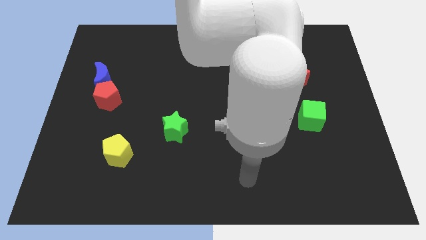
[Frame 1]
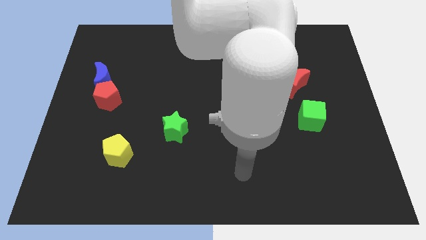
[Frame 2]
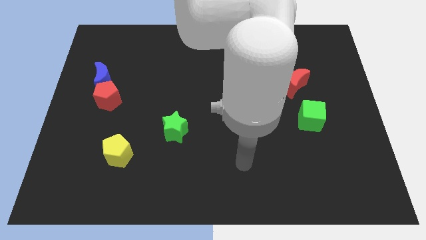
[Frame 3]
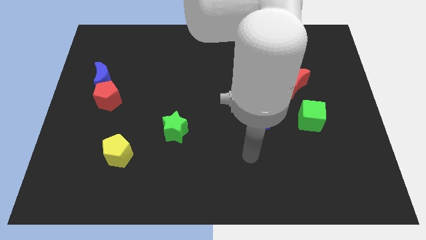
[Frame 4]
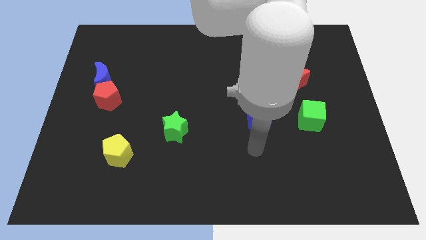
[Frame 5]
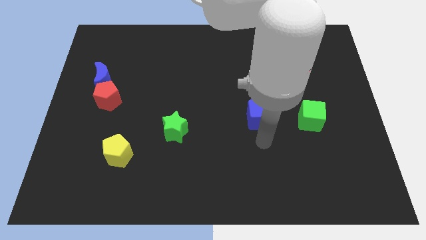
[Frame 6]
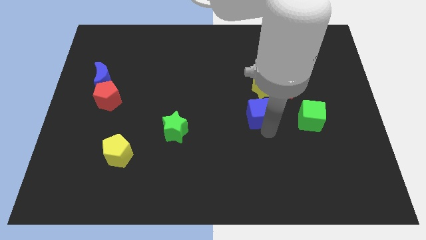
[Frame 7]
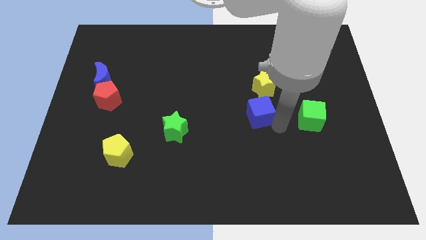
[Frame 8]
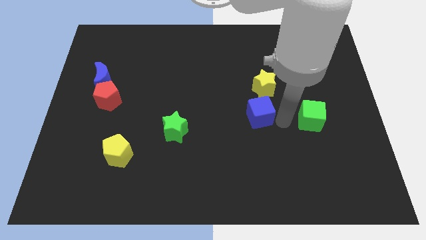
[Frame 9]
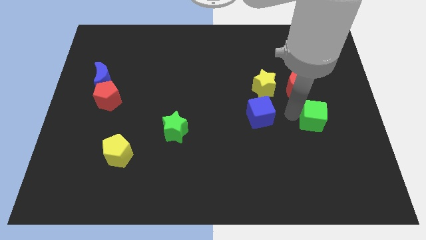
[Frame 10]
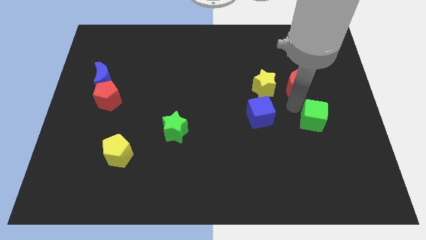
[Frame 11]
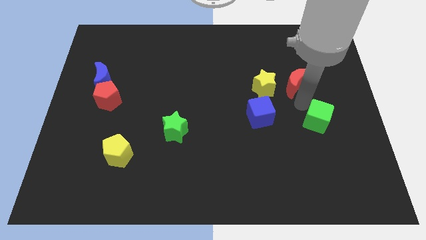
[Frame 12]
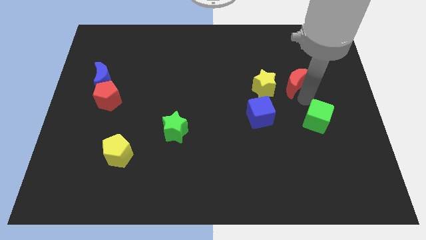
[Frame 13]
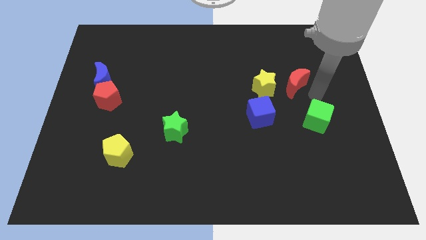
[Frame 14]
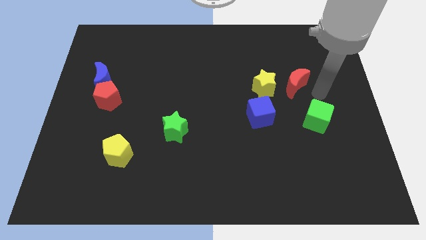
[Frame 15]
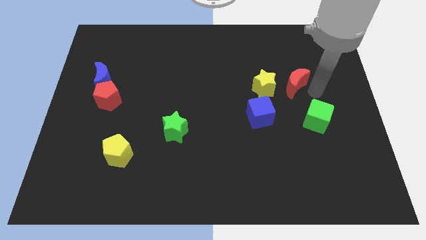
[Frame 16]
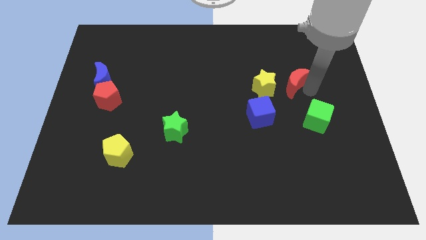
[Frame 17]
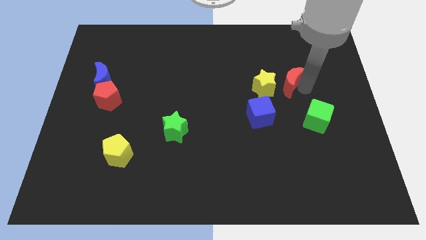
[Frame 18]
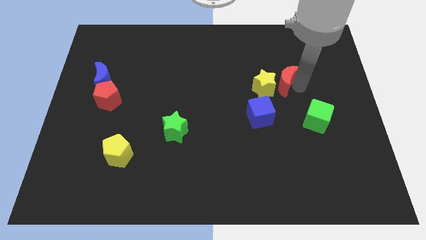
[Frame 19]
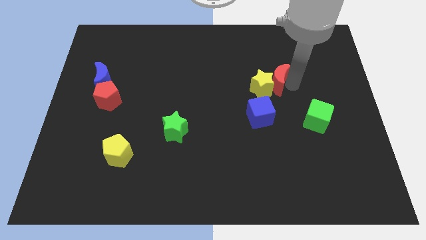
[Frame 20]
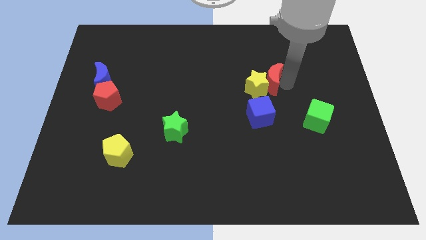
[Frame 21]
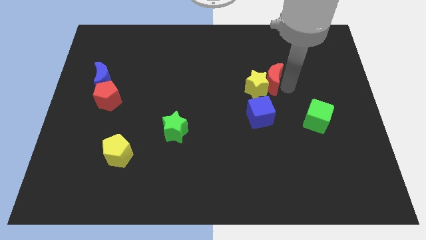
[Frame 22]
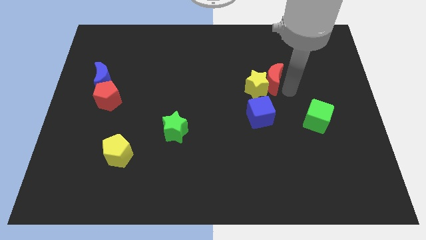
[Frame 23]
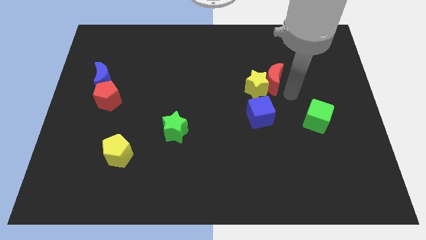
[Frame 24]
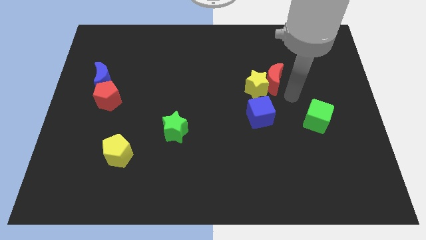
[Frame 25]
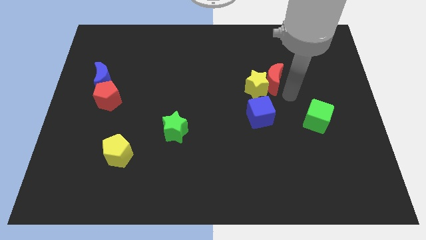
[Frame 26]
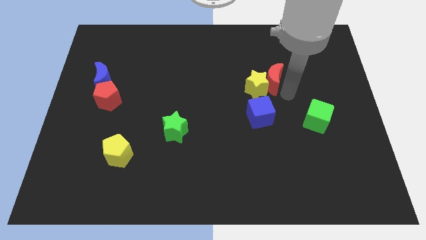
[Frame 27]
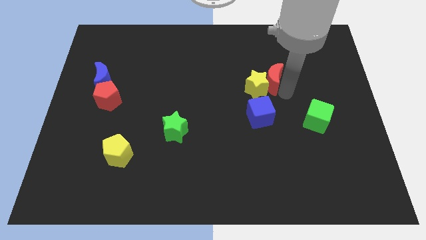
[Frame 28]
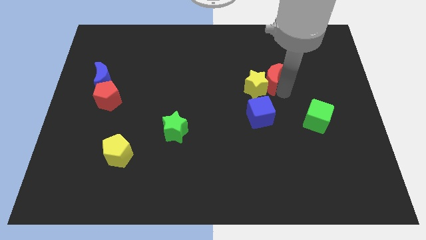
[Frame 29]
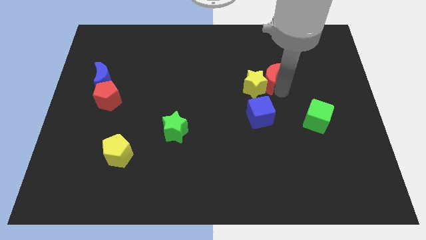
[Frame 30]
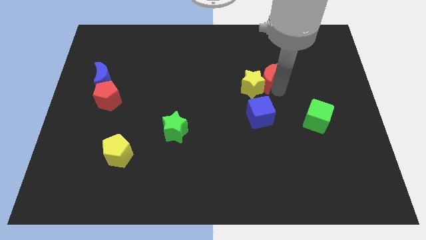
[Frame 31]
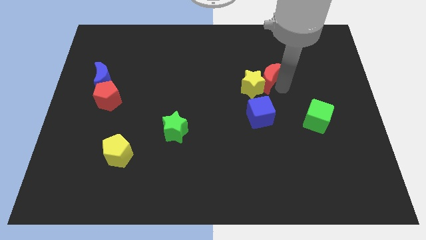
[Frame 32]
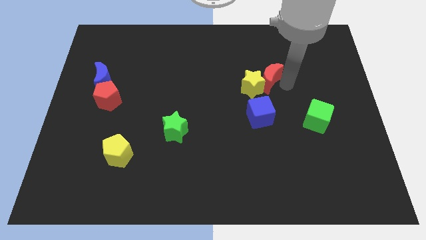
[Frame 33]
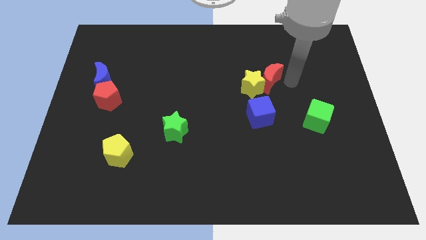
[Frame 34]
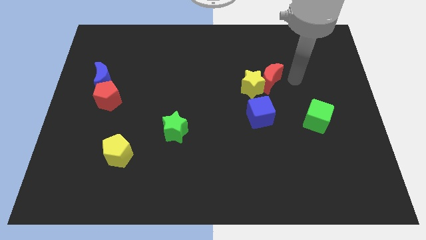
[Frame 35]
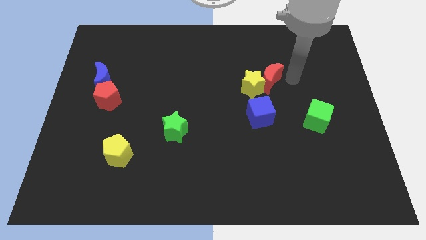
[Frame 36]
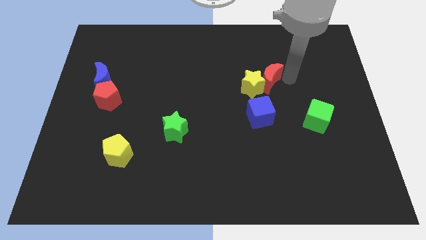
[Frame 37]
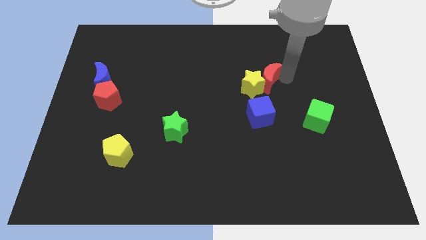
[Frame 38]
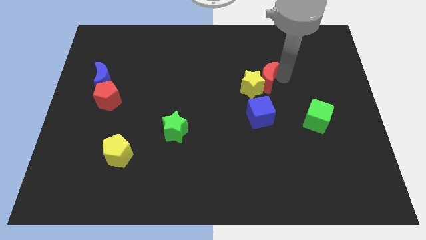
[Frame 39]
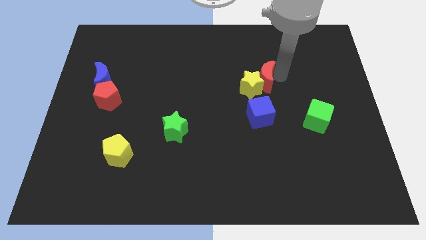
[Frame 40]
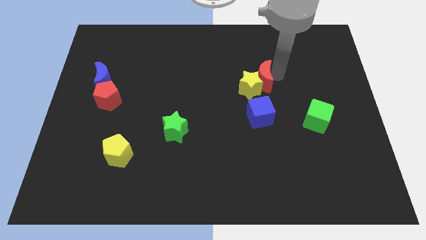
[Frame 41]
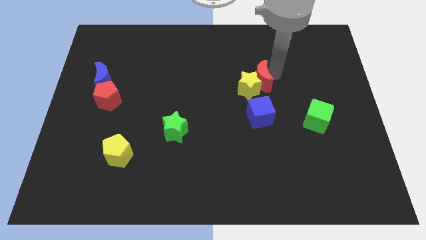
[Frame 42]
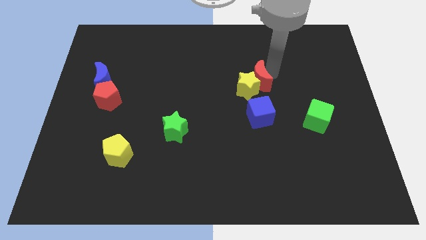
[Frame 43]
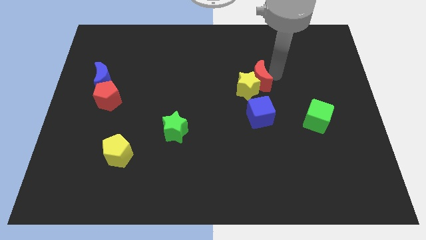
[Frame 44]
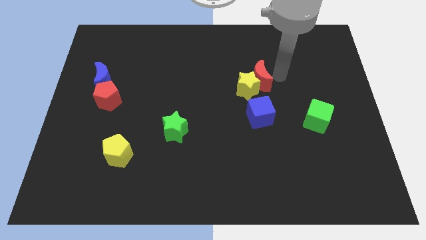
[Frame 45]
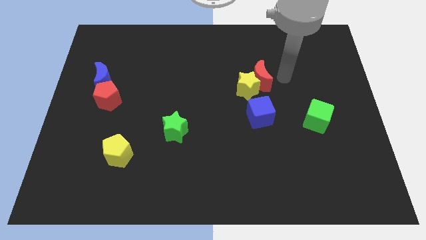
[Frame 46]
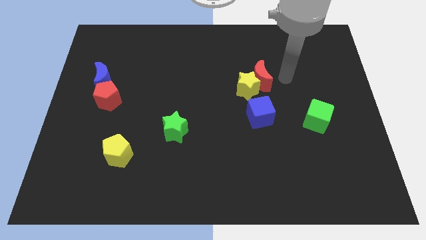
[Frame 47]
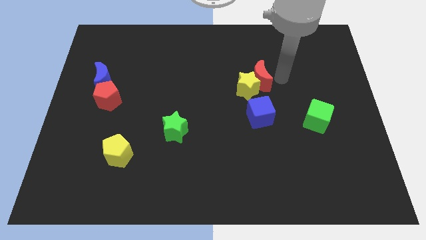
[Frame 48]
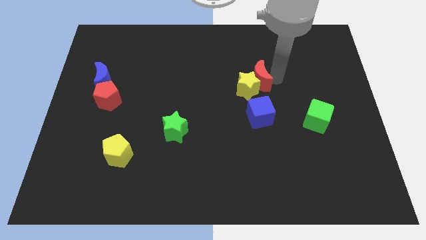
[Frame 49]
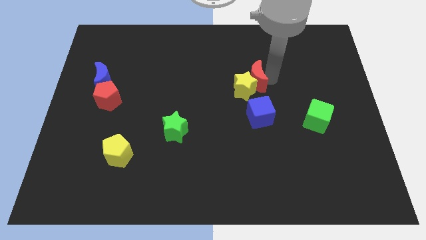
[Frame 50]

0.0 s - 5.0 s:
slide the red moon to the middle

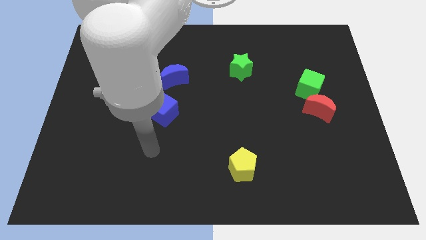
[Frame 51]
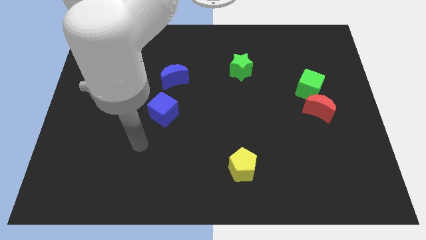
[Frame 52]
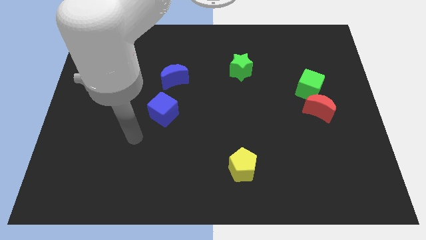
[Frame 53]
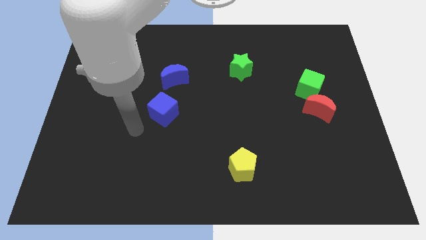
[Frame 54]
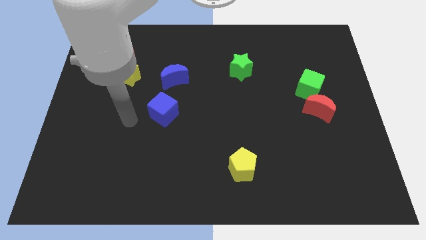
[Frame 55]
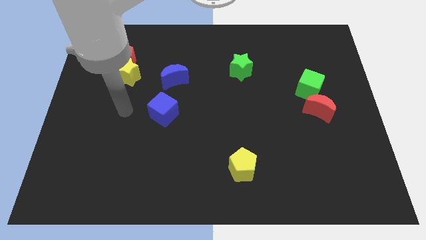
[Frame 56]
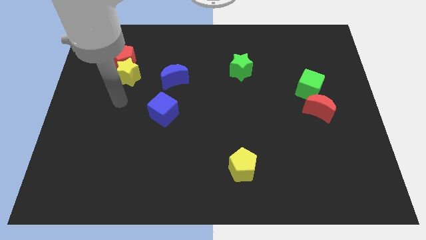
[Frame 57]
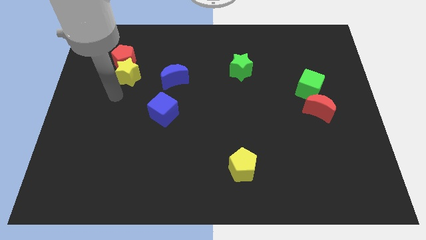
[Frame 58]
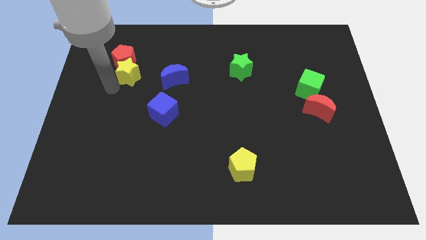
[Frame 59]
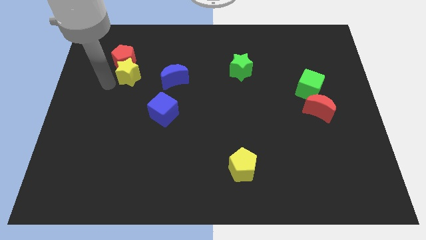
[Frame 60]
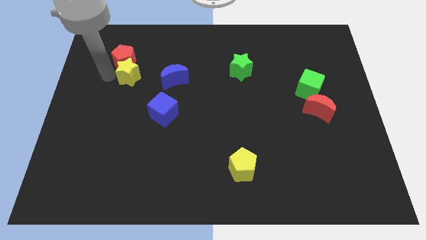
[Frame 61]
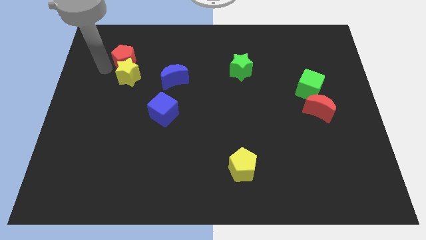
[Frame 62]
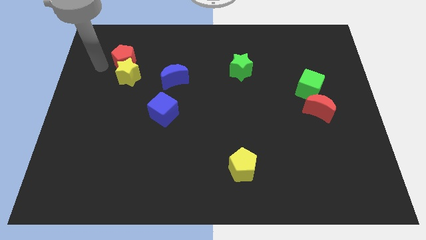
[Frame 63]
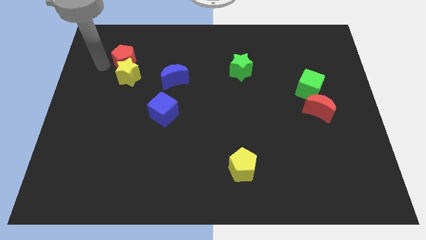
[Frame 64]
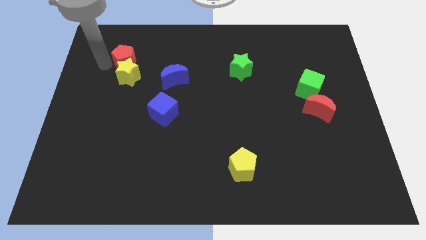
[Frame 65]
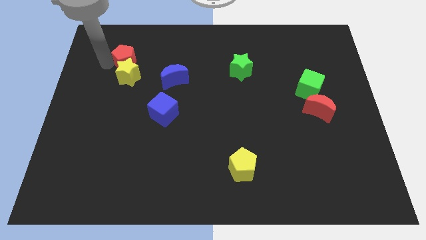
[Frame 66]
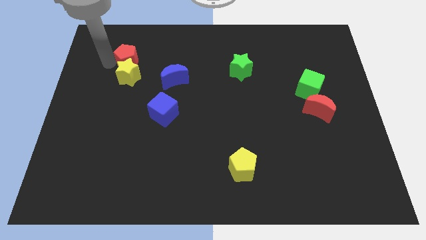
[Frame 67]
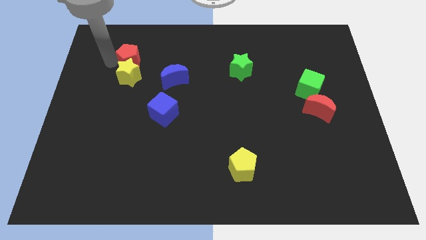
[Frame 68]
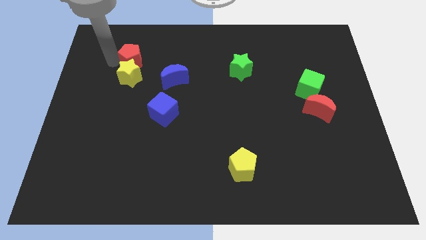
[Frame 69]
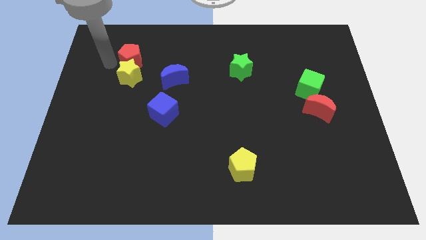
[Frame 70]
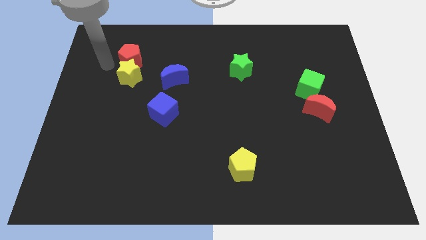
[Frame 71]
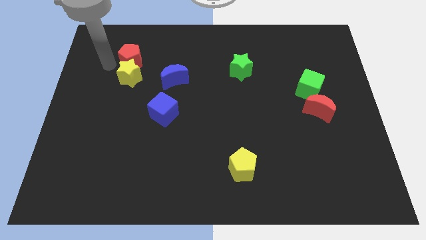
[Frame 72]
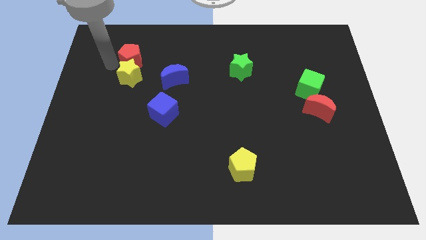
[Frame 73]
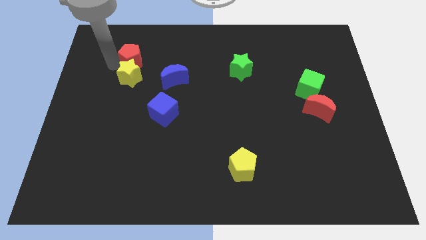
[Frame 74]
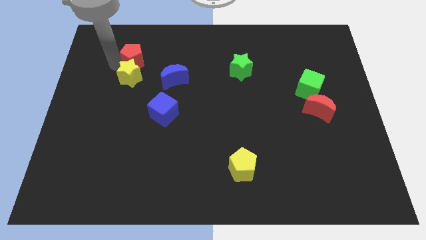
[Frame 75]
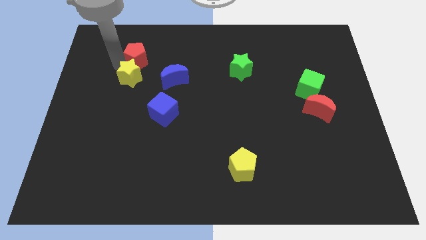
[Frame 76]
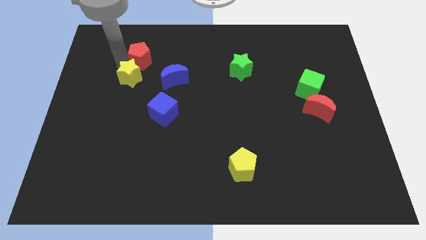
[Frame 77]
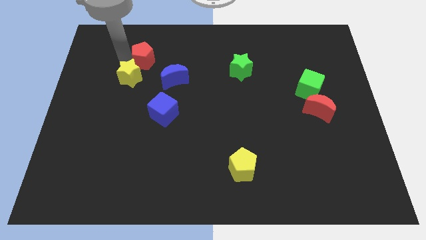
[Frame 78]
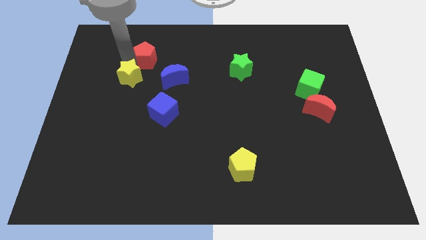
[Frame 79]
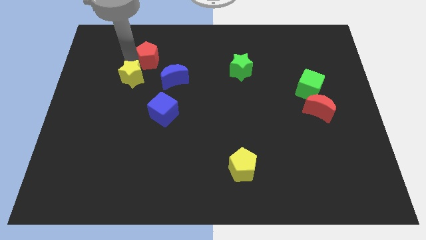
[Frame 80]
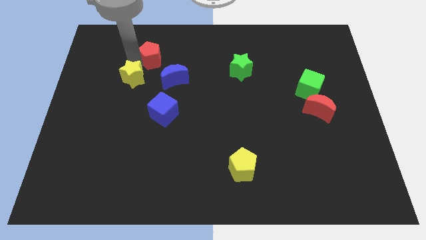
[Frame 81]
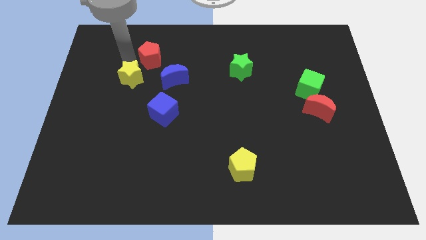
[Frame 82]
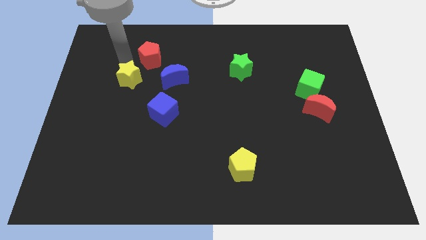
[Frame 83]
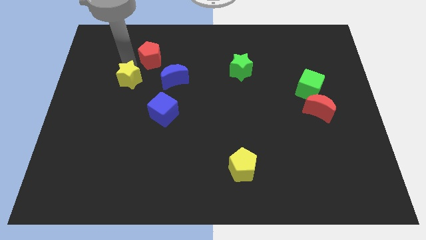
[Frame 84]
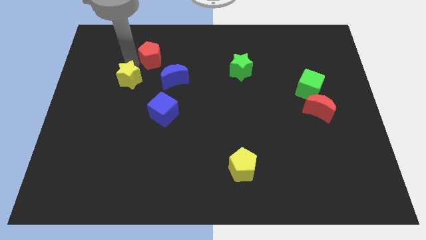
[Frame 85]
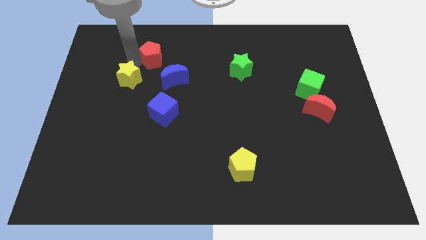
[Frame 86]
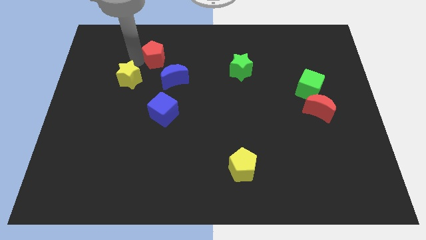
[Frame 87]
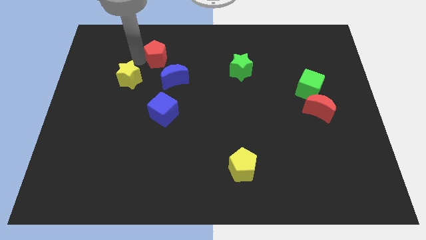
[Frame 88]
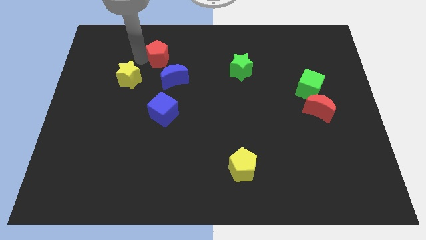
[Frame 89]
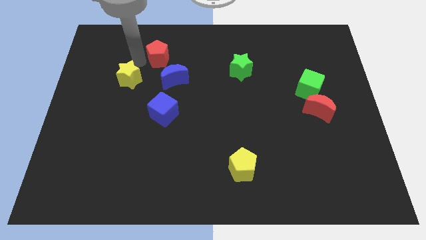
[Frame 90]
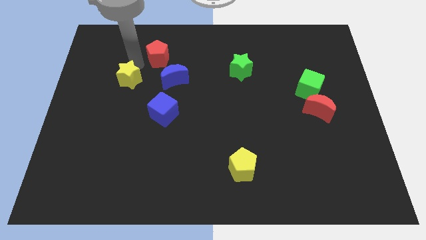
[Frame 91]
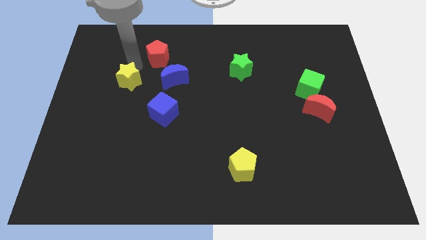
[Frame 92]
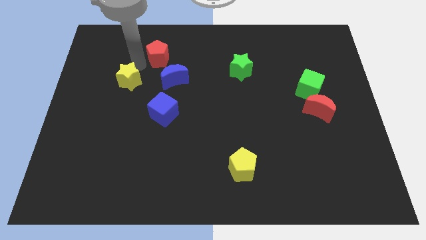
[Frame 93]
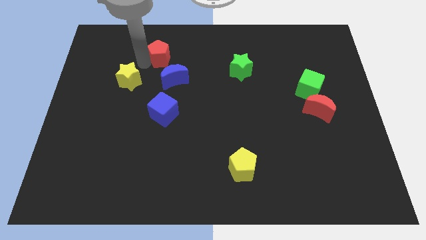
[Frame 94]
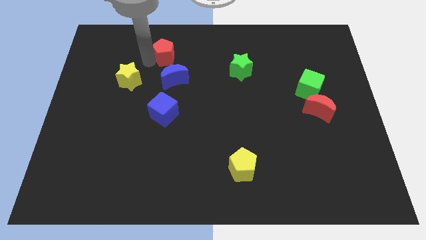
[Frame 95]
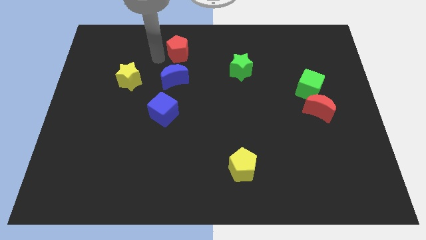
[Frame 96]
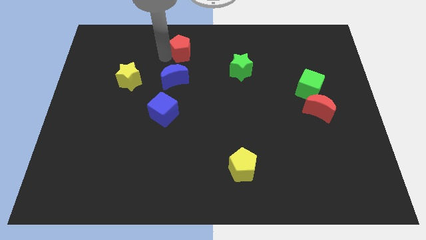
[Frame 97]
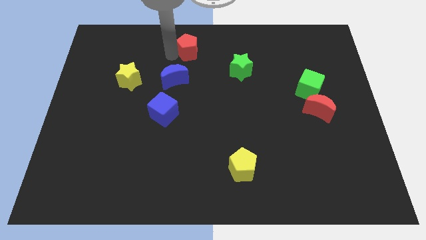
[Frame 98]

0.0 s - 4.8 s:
put the red pentagon to the top
